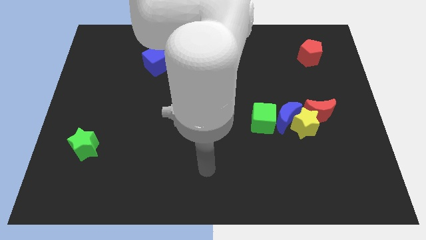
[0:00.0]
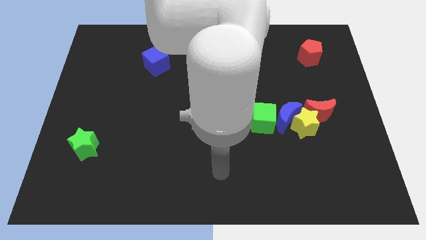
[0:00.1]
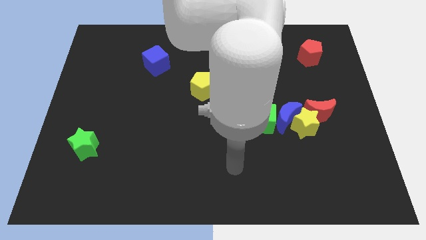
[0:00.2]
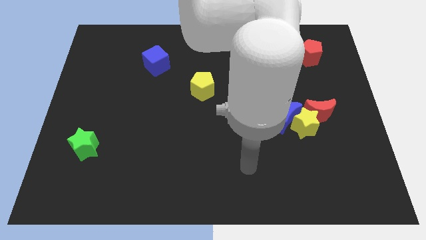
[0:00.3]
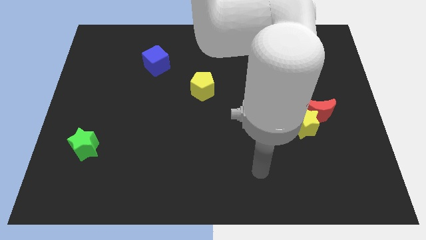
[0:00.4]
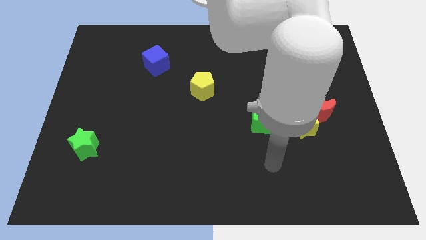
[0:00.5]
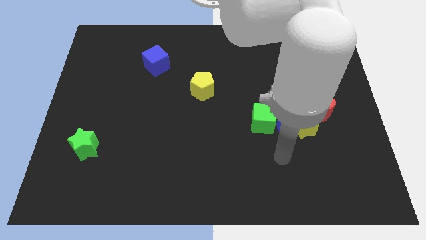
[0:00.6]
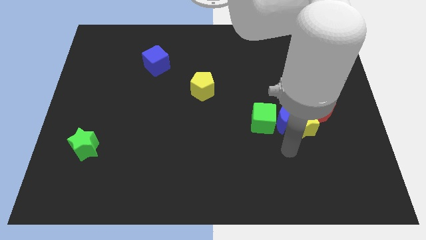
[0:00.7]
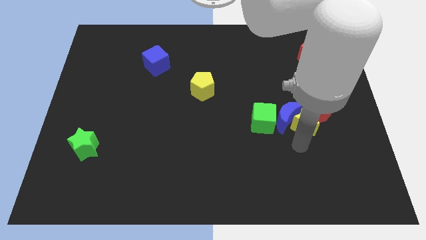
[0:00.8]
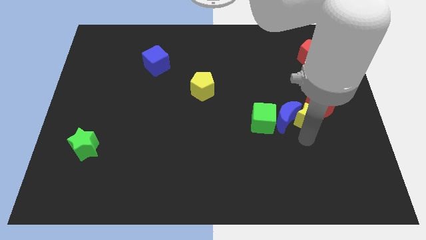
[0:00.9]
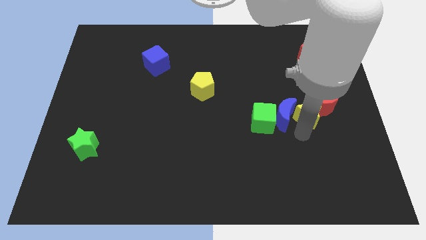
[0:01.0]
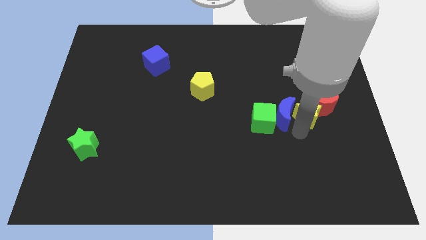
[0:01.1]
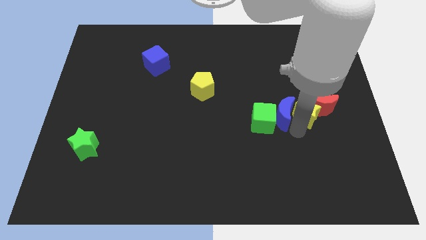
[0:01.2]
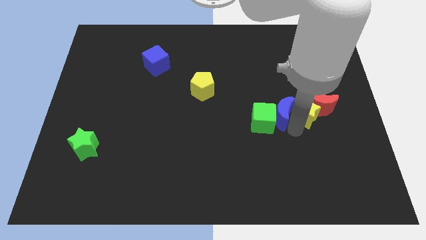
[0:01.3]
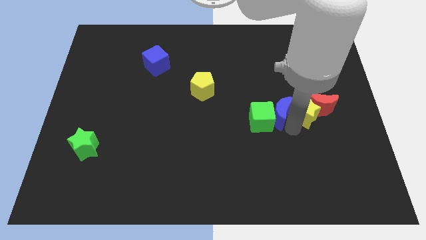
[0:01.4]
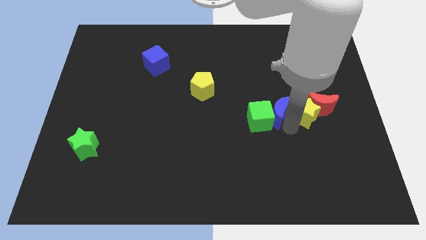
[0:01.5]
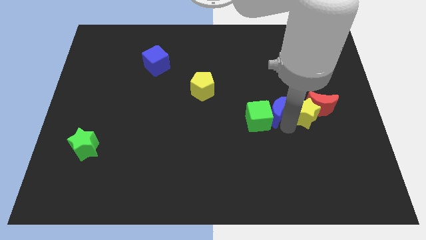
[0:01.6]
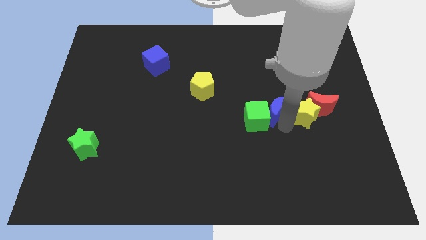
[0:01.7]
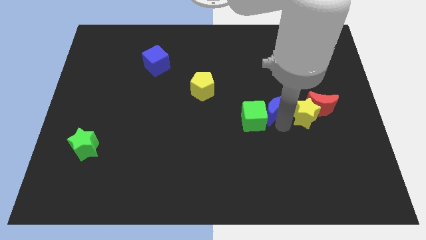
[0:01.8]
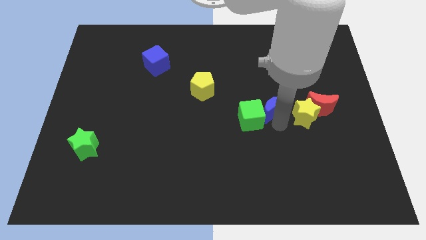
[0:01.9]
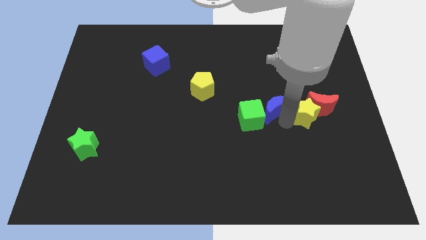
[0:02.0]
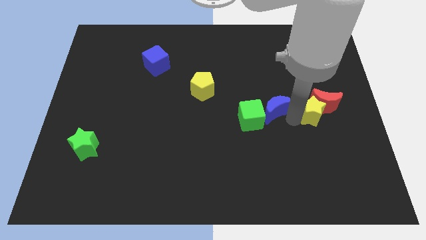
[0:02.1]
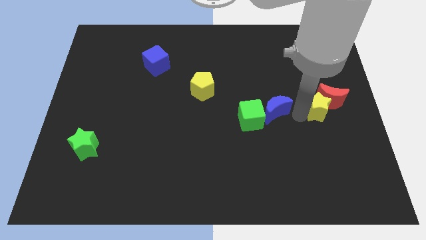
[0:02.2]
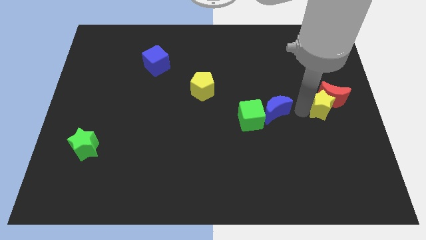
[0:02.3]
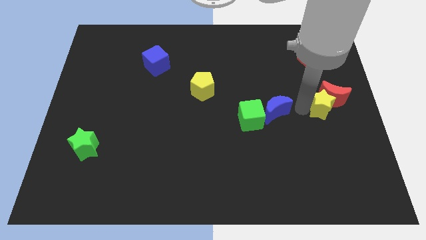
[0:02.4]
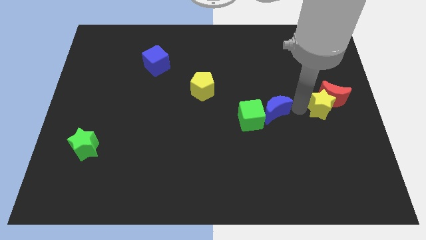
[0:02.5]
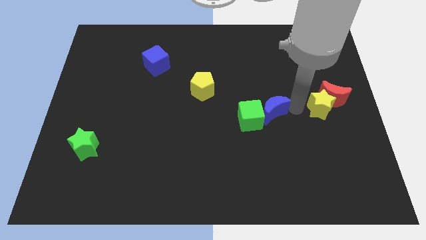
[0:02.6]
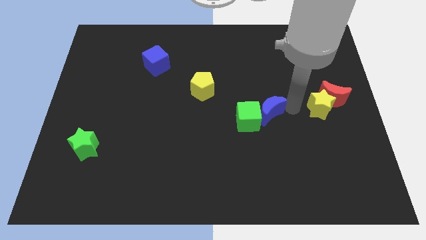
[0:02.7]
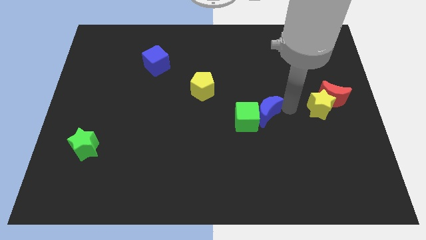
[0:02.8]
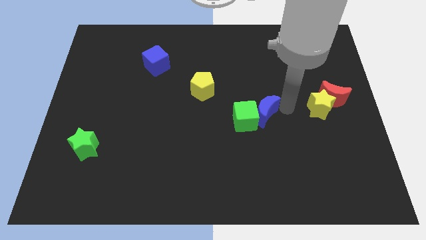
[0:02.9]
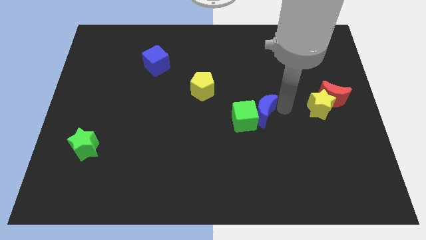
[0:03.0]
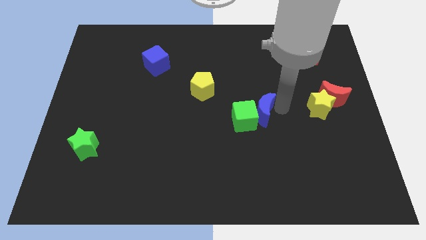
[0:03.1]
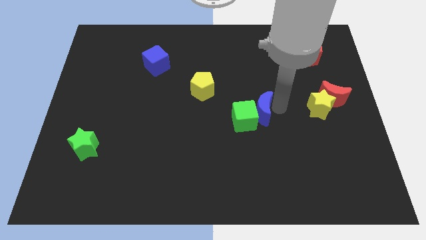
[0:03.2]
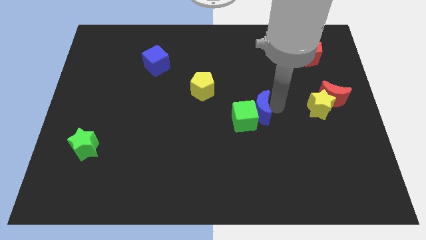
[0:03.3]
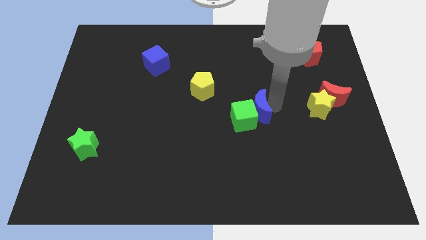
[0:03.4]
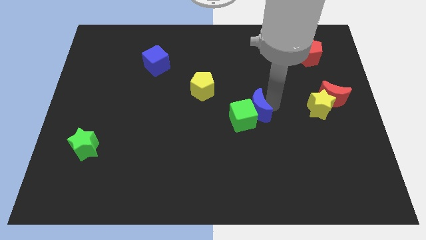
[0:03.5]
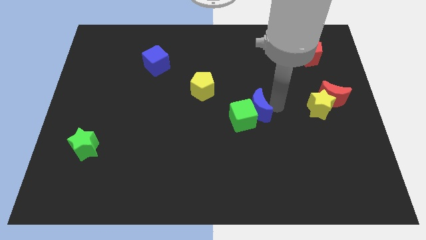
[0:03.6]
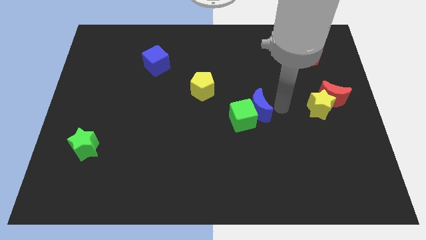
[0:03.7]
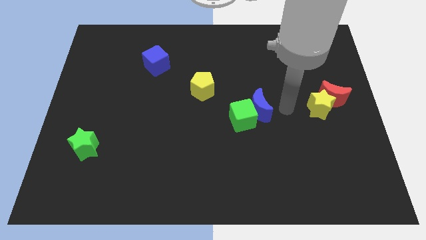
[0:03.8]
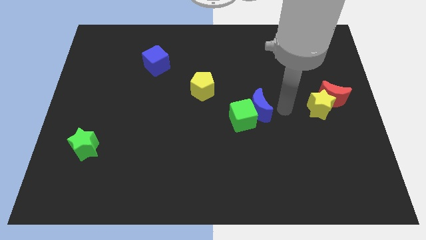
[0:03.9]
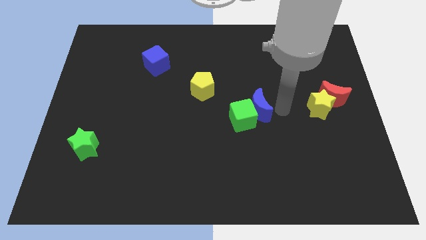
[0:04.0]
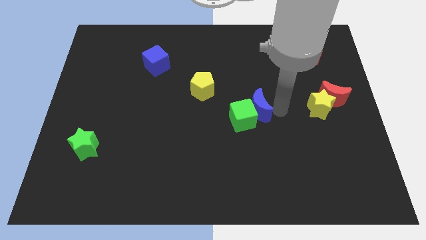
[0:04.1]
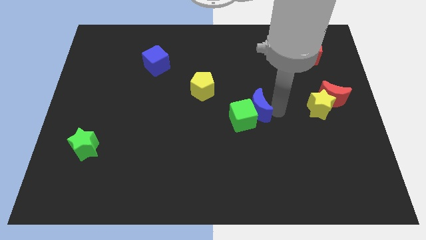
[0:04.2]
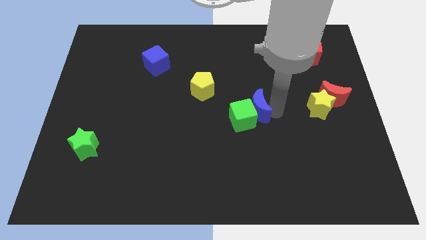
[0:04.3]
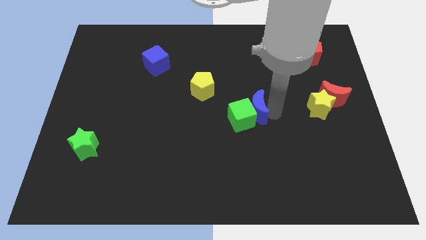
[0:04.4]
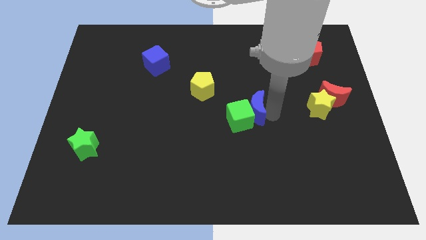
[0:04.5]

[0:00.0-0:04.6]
move the blue moon away from the group of blocks

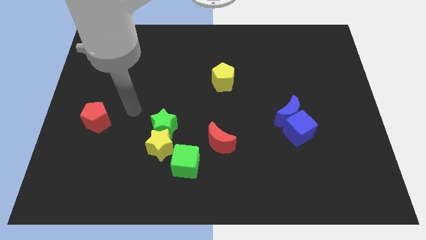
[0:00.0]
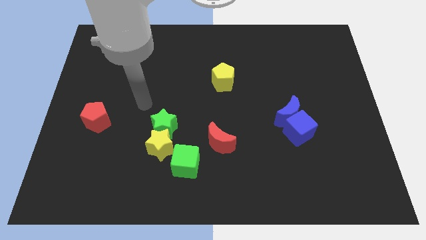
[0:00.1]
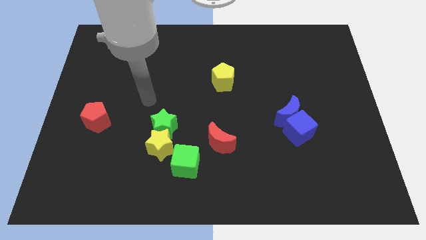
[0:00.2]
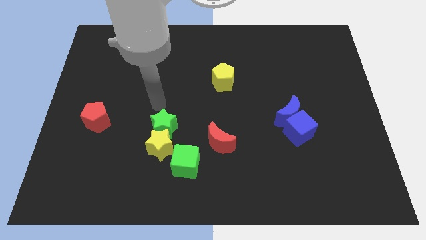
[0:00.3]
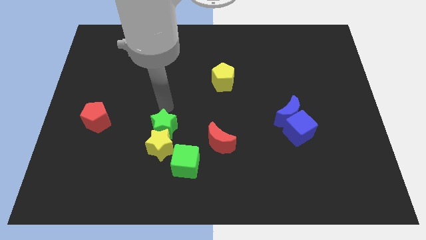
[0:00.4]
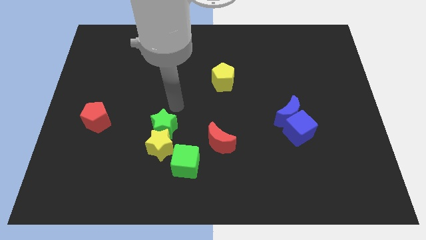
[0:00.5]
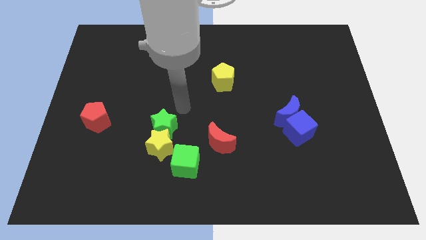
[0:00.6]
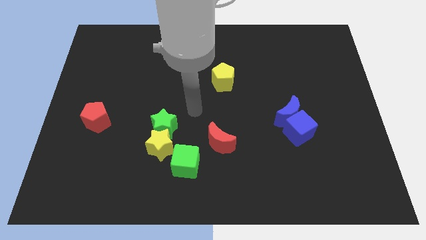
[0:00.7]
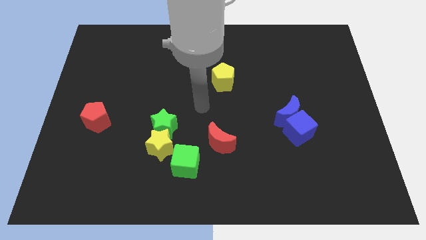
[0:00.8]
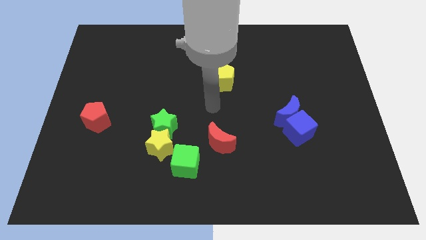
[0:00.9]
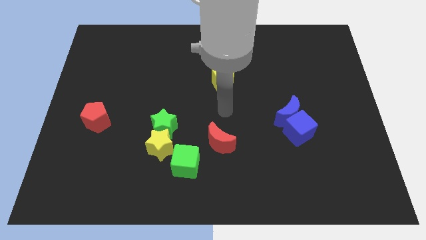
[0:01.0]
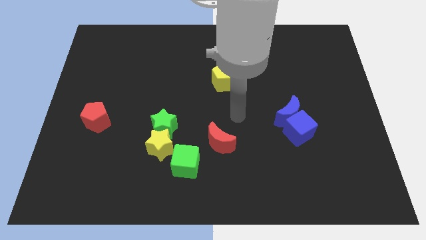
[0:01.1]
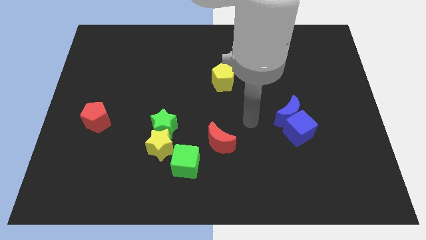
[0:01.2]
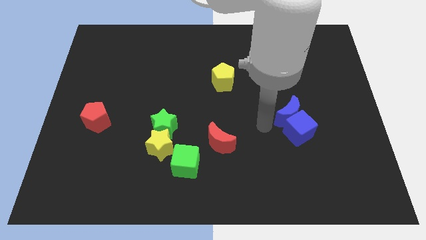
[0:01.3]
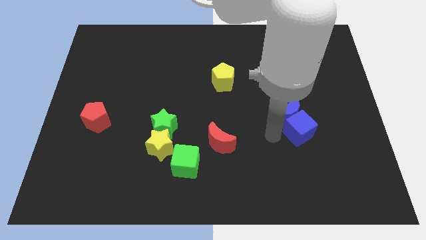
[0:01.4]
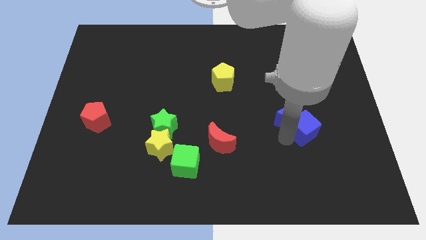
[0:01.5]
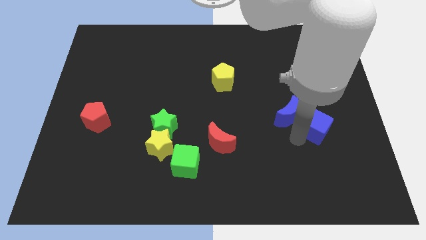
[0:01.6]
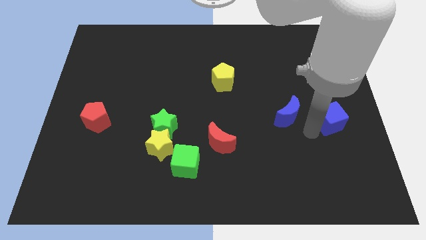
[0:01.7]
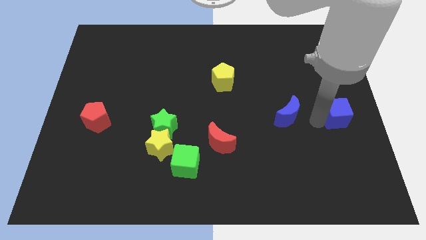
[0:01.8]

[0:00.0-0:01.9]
separate the blue moon from the blue cube

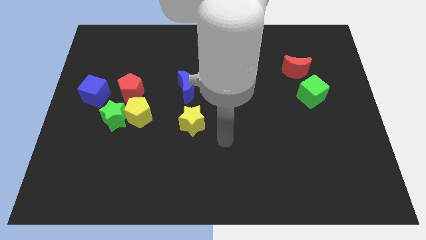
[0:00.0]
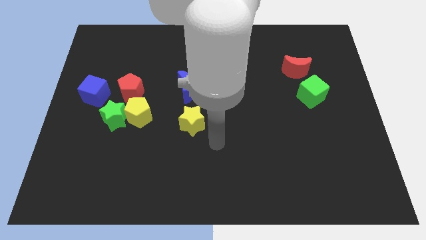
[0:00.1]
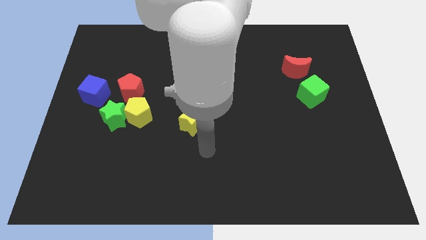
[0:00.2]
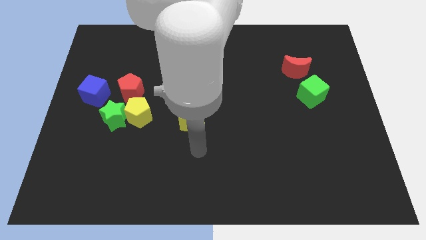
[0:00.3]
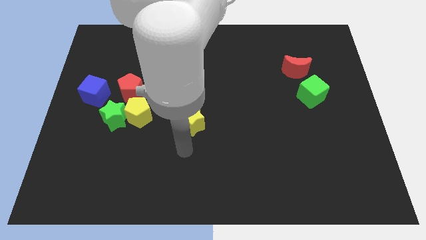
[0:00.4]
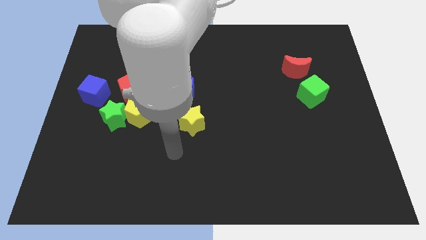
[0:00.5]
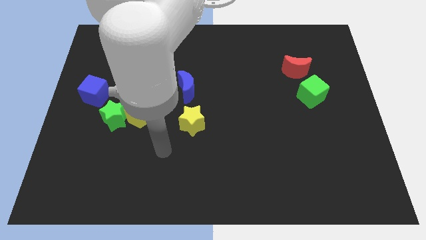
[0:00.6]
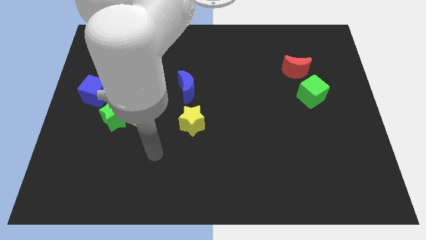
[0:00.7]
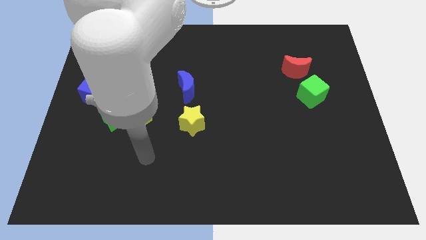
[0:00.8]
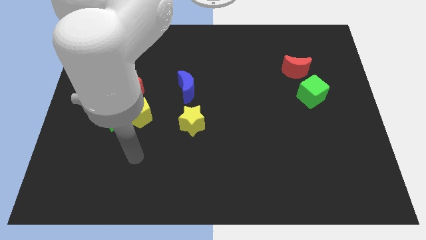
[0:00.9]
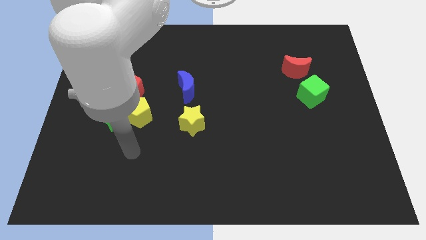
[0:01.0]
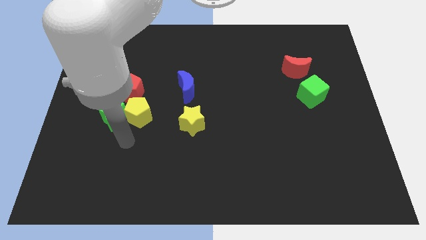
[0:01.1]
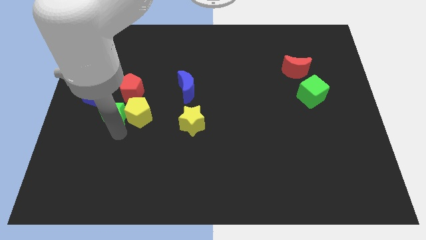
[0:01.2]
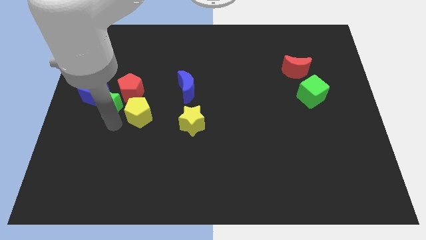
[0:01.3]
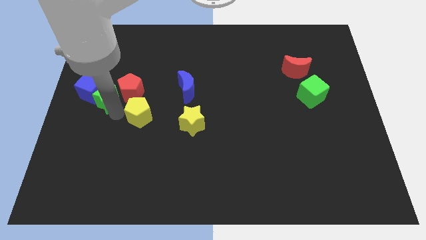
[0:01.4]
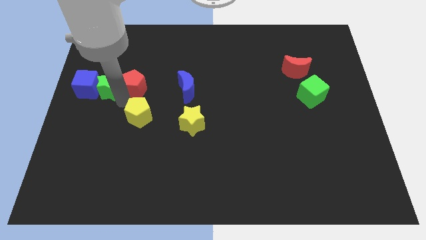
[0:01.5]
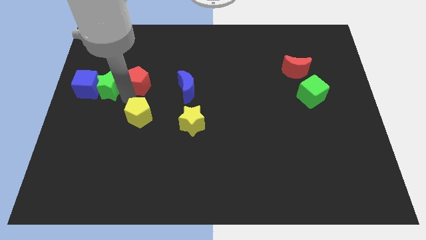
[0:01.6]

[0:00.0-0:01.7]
move the yellow pentagon away from the green star and red pentagon

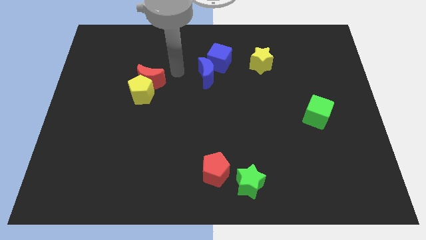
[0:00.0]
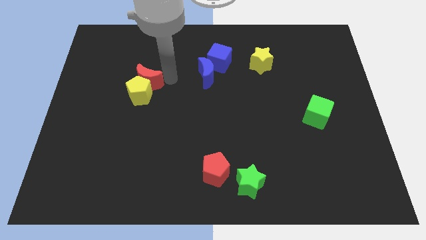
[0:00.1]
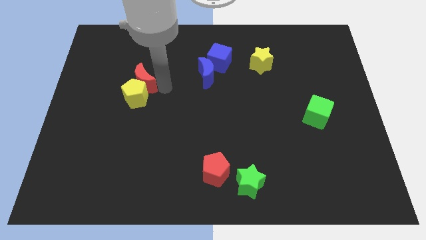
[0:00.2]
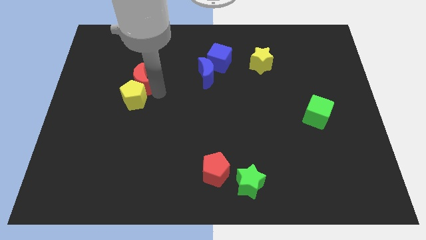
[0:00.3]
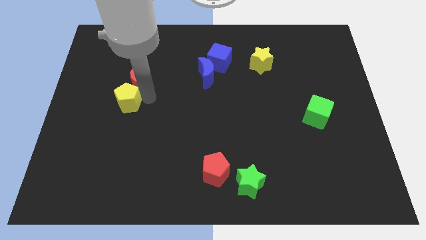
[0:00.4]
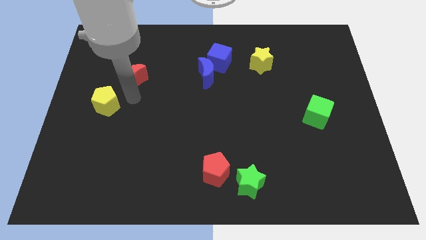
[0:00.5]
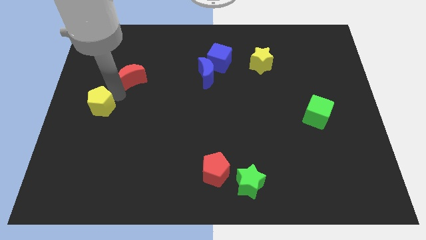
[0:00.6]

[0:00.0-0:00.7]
move the red moon away from the yellow pentagon

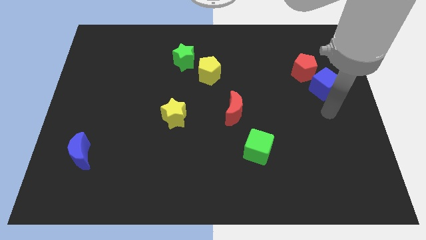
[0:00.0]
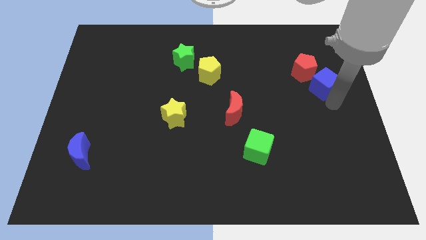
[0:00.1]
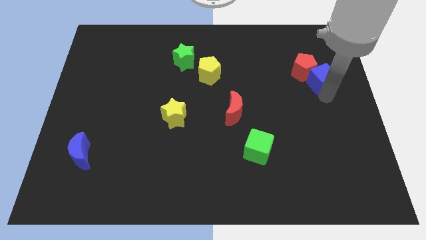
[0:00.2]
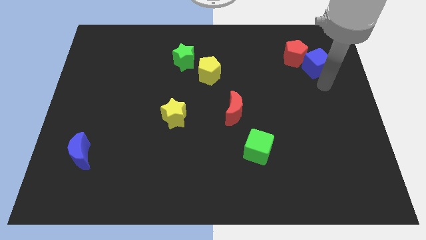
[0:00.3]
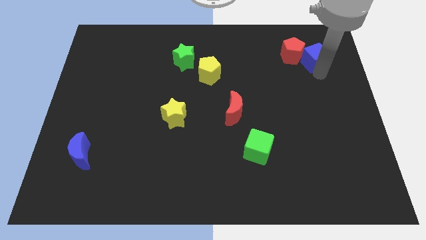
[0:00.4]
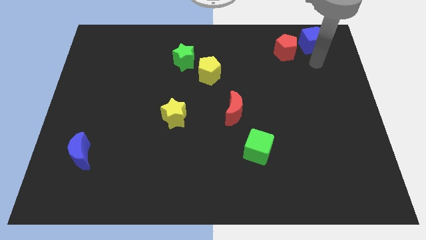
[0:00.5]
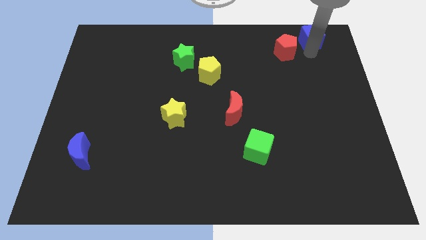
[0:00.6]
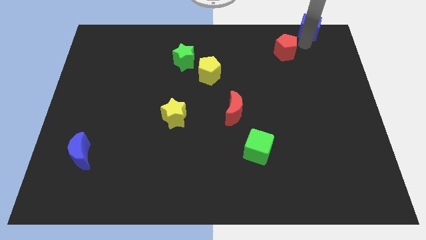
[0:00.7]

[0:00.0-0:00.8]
separate the red pentagon from the blue cube
